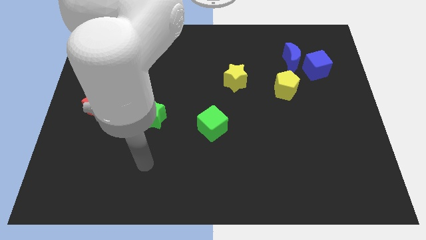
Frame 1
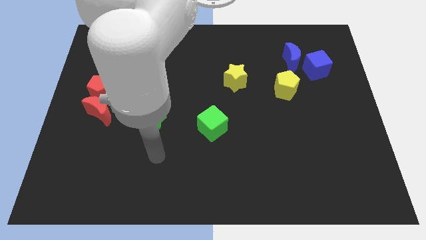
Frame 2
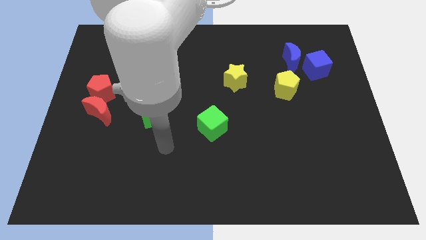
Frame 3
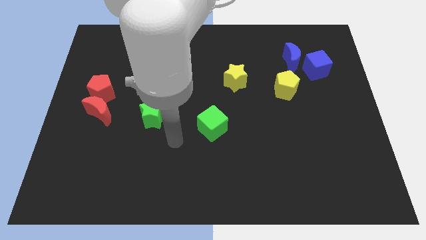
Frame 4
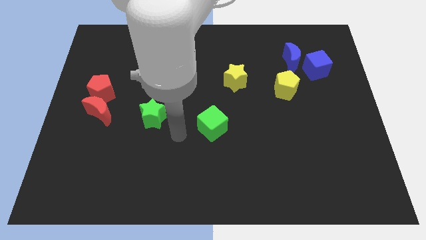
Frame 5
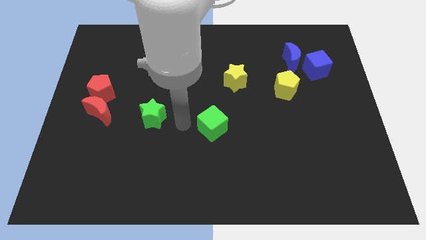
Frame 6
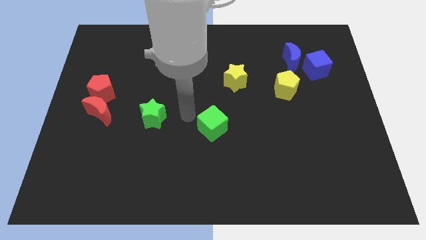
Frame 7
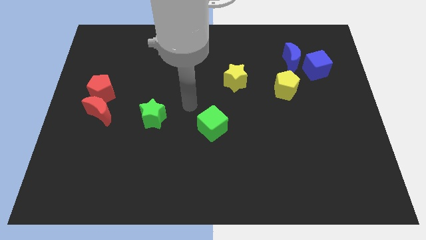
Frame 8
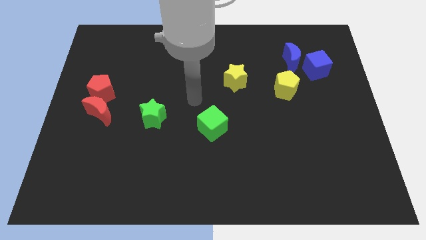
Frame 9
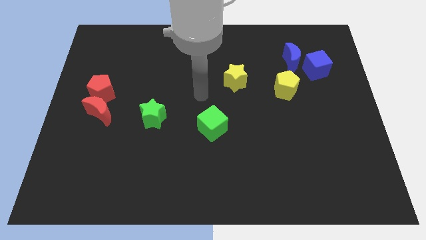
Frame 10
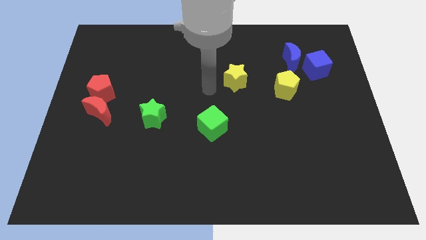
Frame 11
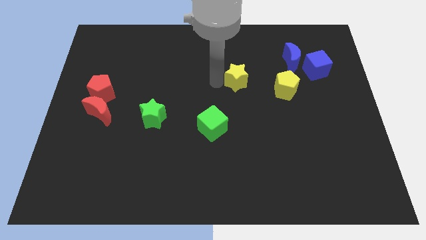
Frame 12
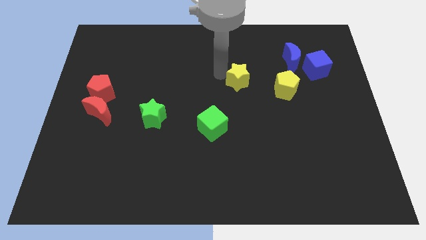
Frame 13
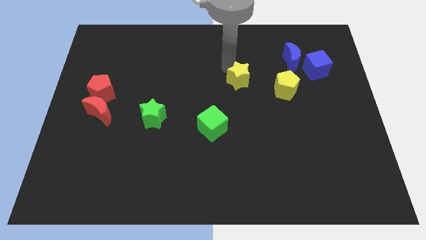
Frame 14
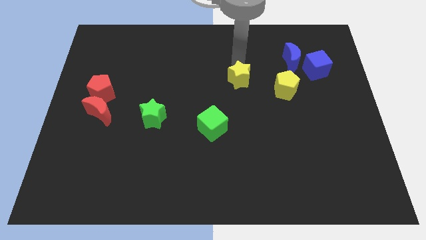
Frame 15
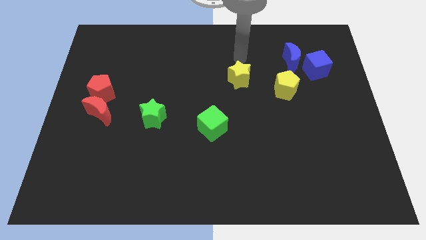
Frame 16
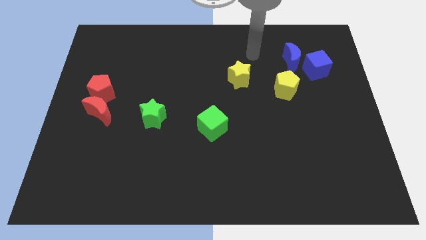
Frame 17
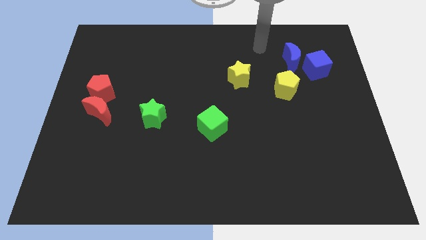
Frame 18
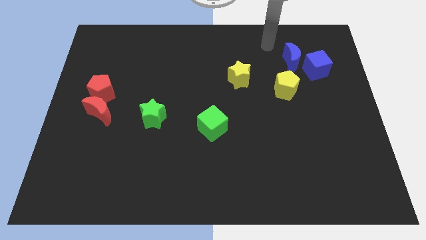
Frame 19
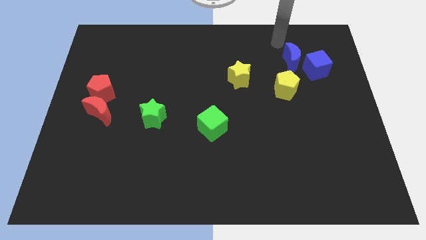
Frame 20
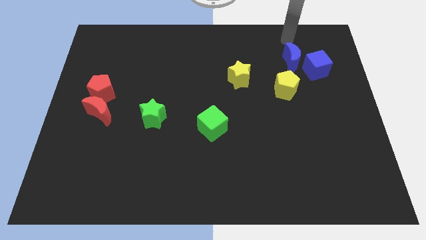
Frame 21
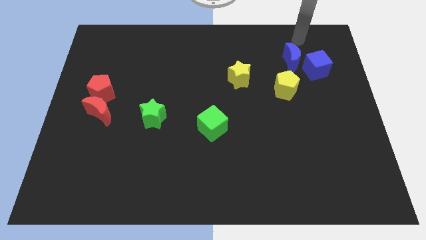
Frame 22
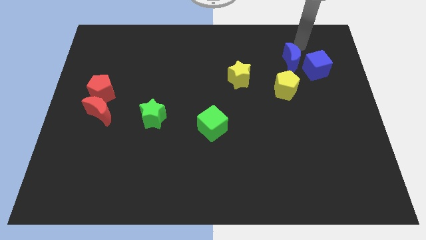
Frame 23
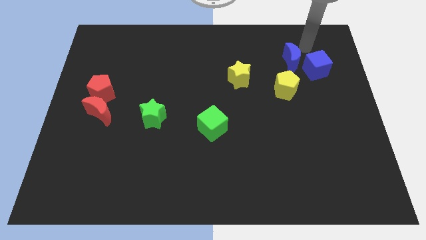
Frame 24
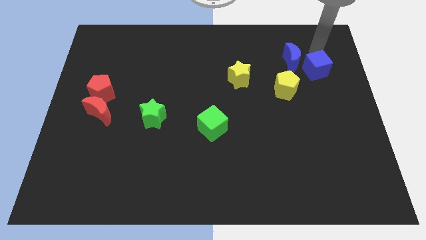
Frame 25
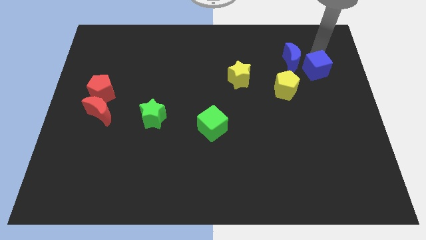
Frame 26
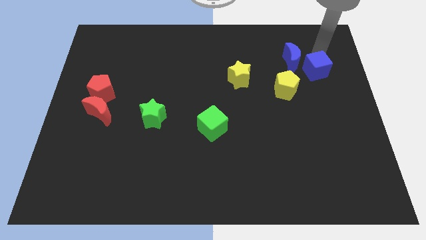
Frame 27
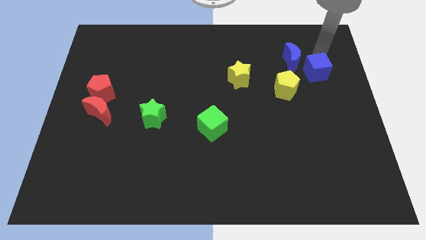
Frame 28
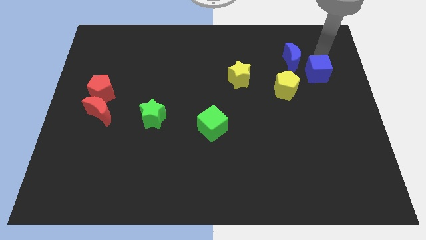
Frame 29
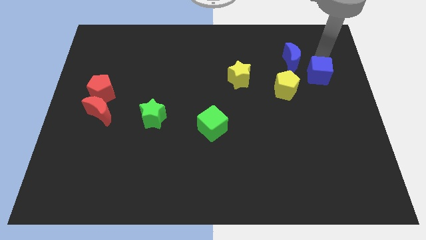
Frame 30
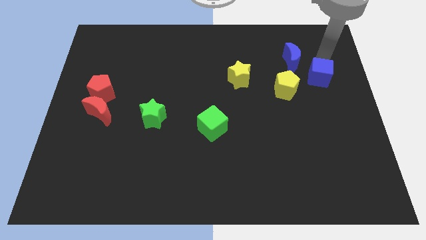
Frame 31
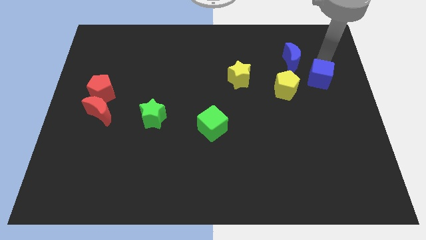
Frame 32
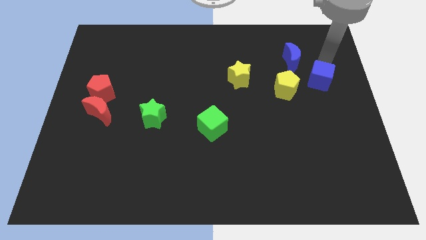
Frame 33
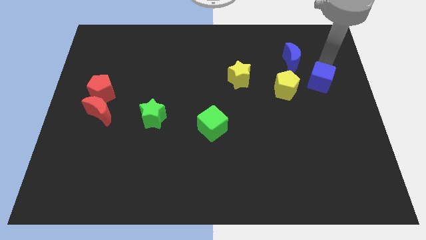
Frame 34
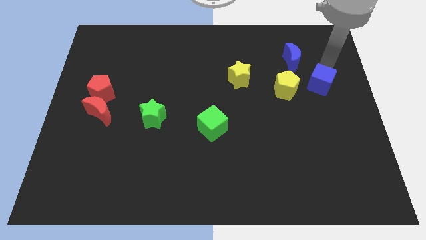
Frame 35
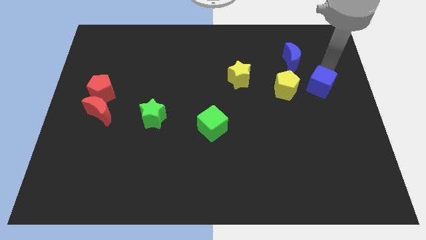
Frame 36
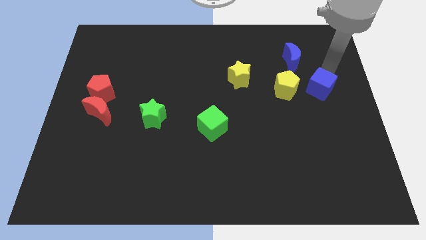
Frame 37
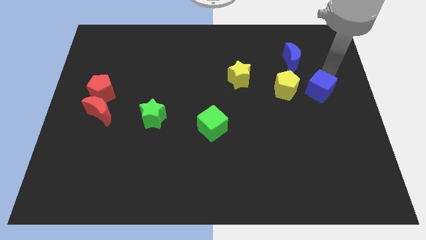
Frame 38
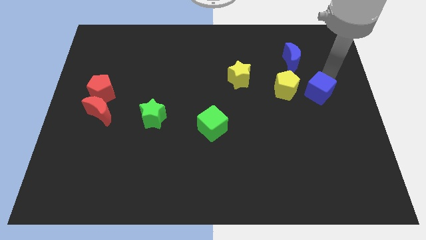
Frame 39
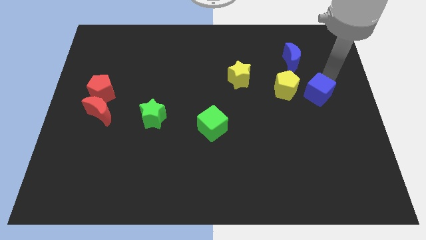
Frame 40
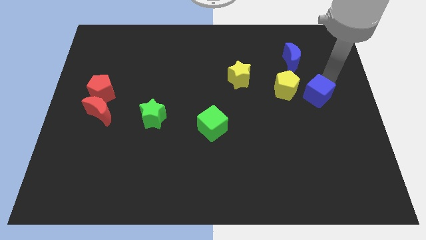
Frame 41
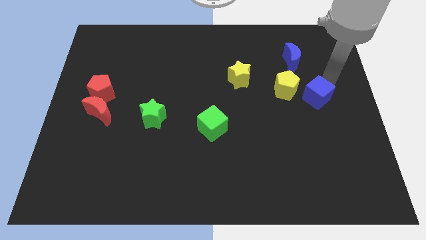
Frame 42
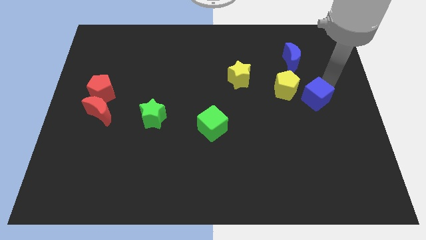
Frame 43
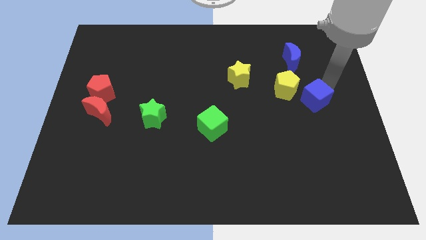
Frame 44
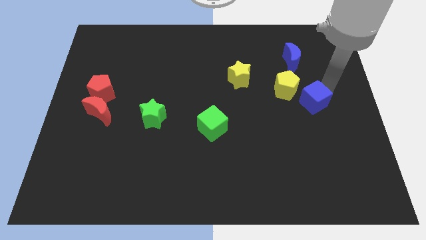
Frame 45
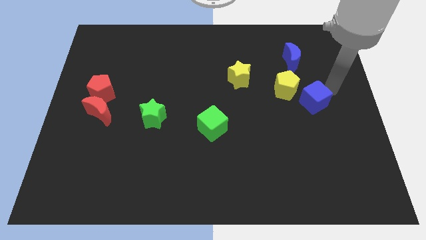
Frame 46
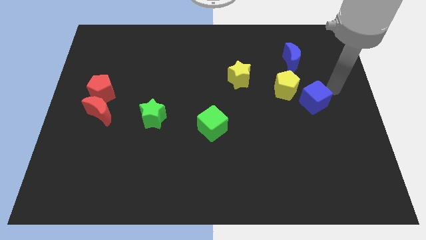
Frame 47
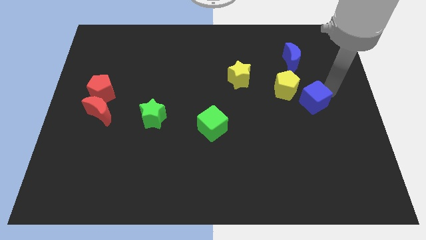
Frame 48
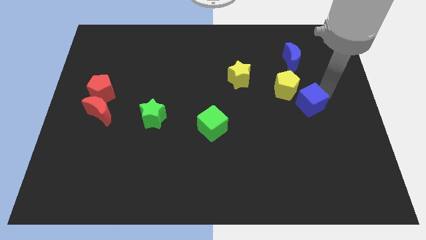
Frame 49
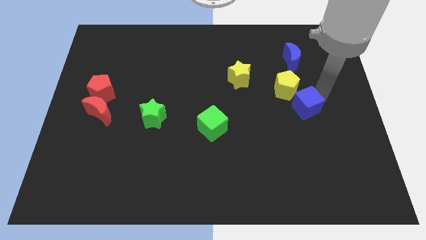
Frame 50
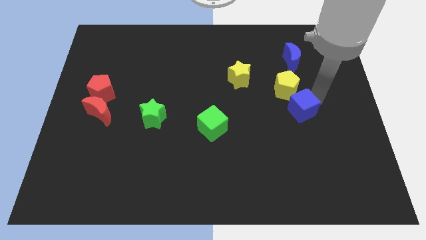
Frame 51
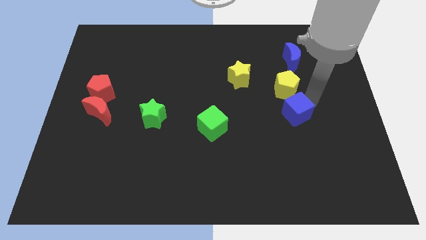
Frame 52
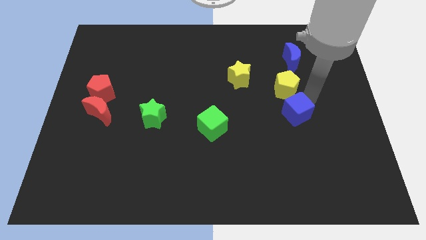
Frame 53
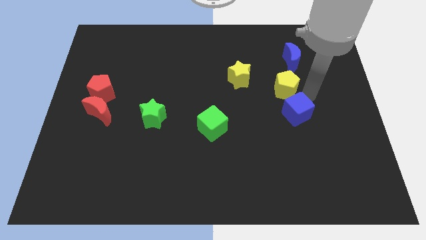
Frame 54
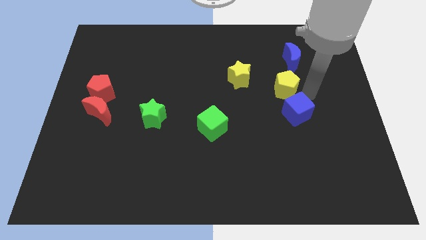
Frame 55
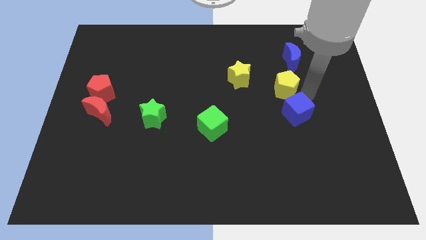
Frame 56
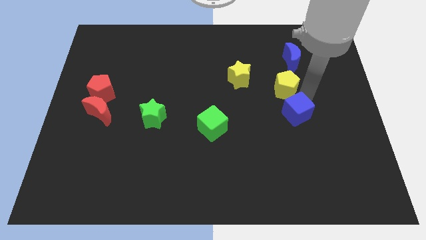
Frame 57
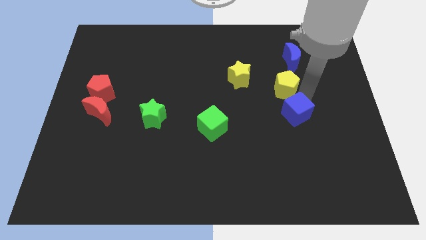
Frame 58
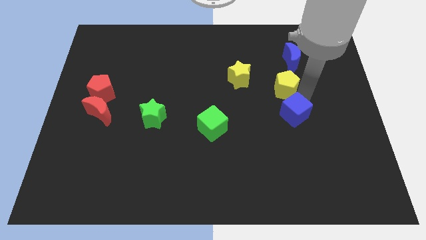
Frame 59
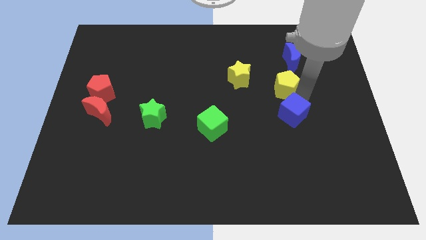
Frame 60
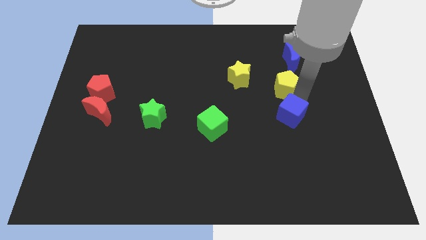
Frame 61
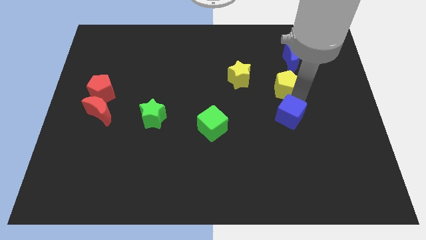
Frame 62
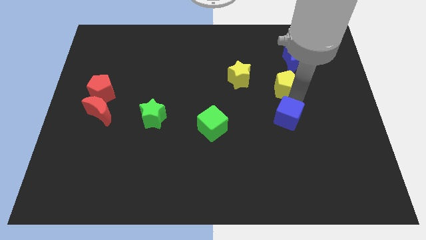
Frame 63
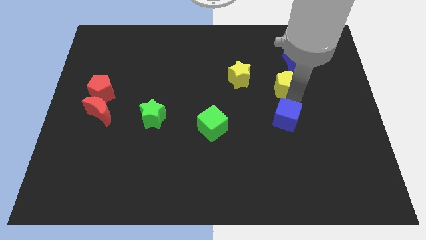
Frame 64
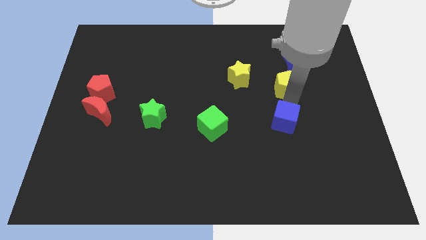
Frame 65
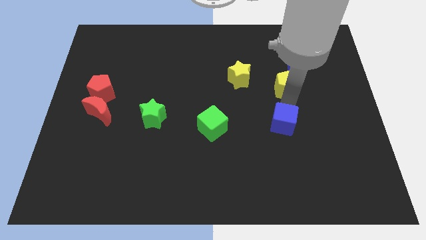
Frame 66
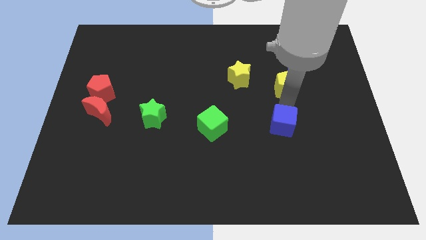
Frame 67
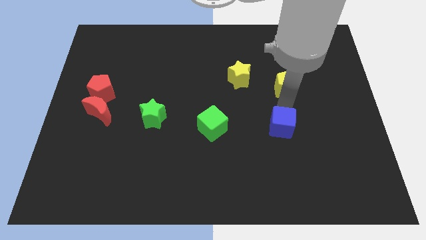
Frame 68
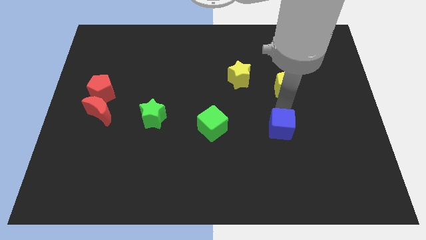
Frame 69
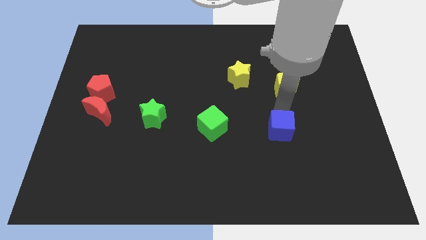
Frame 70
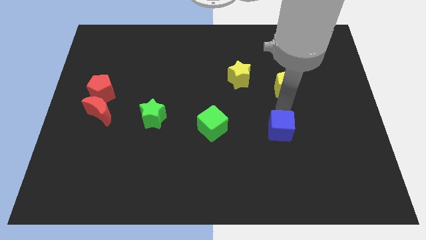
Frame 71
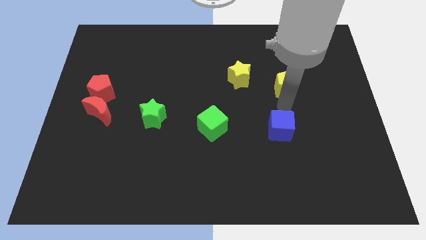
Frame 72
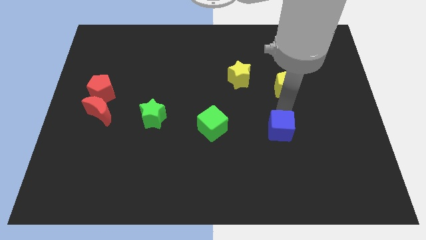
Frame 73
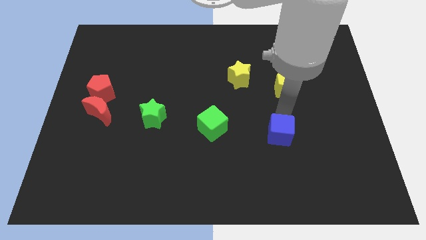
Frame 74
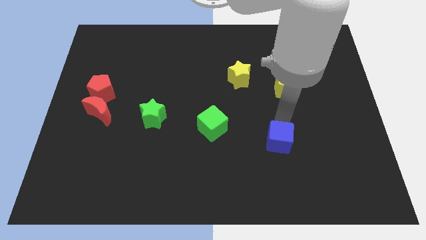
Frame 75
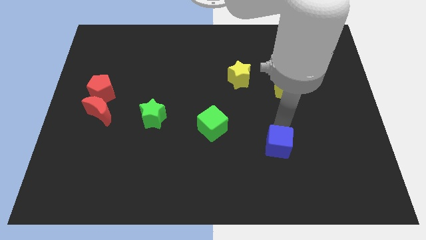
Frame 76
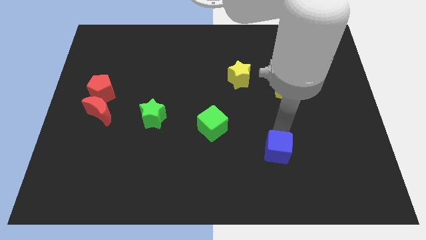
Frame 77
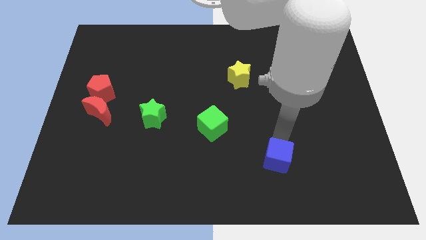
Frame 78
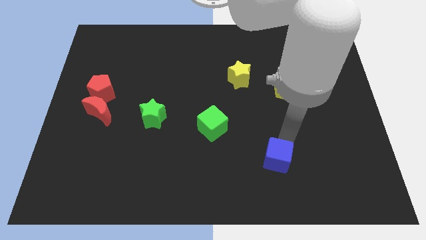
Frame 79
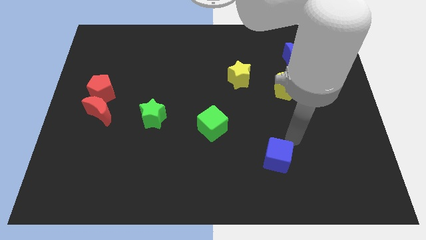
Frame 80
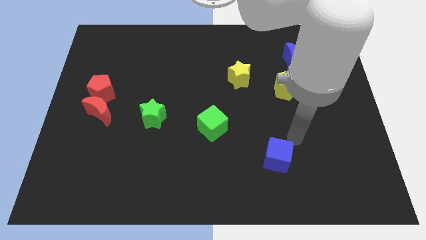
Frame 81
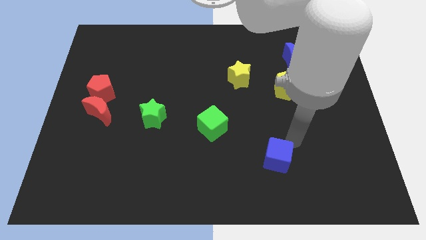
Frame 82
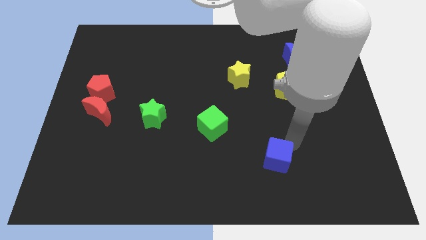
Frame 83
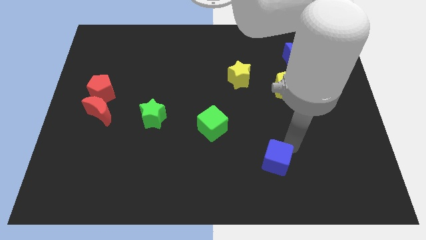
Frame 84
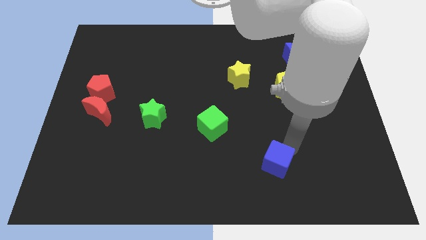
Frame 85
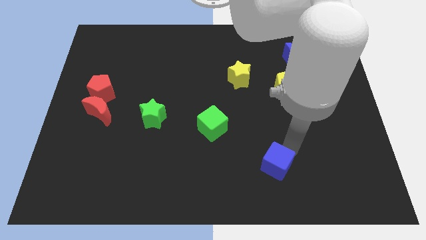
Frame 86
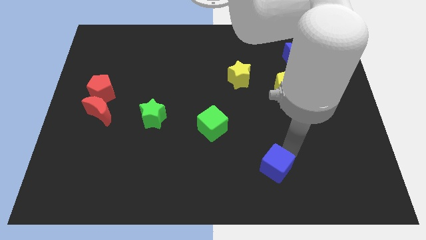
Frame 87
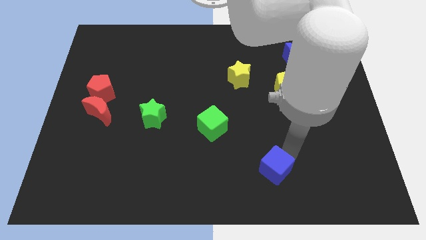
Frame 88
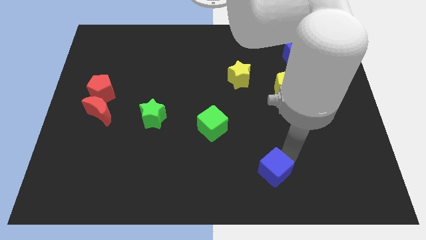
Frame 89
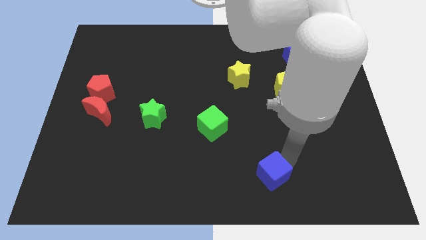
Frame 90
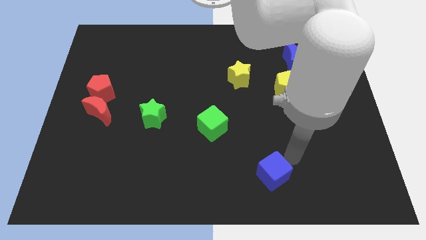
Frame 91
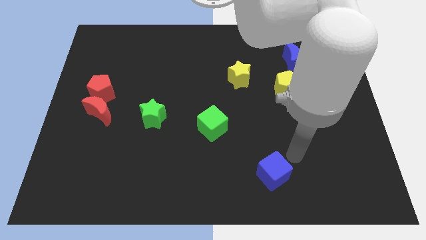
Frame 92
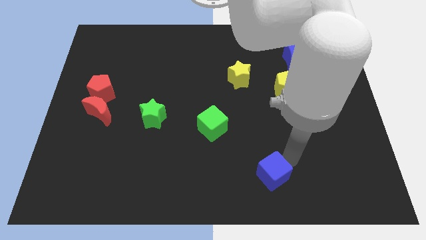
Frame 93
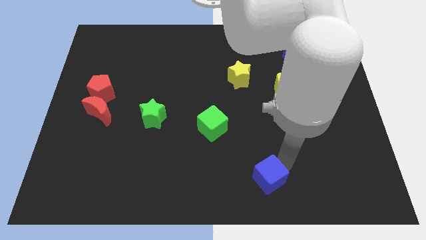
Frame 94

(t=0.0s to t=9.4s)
push the blue cube to the bottom
